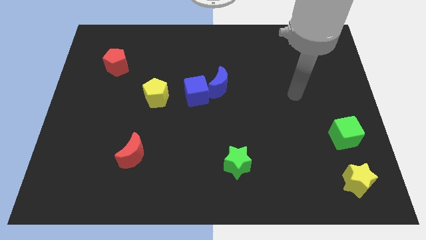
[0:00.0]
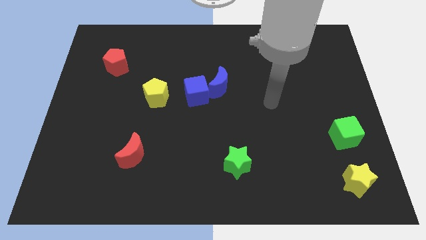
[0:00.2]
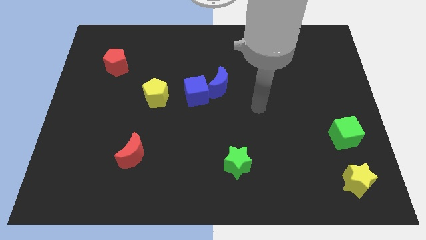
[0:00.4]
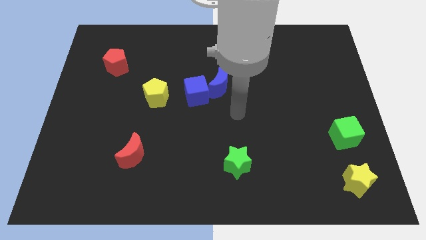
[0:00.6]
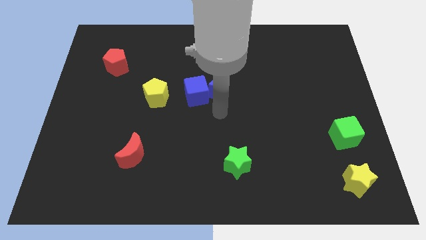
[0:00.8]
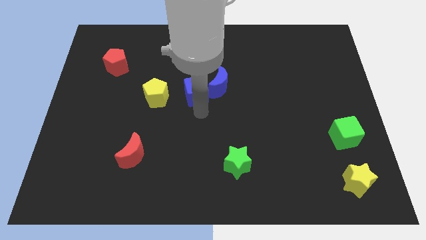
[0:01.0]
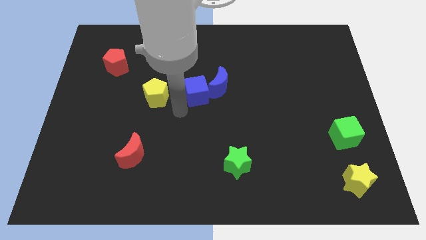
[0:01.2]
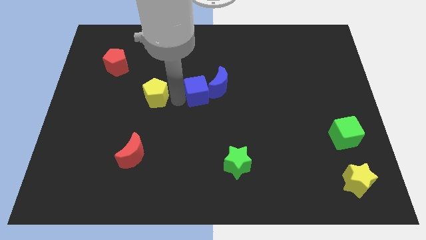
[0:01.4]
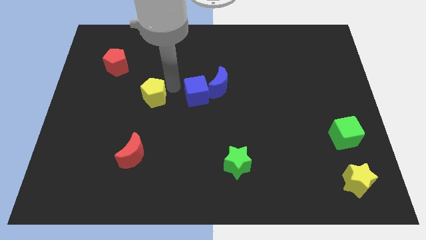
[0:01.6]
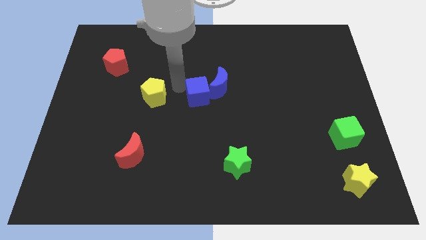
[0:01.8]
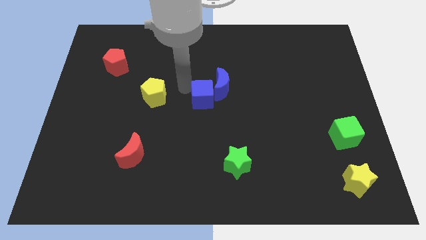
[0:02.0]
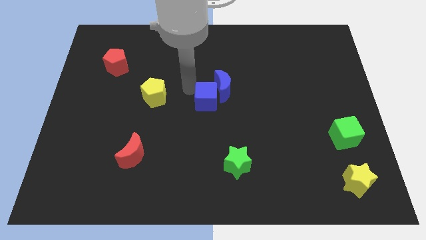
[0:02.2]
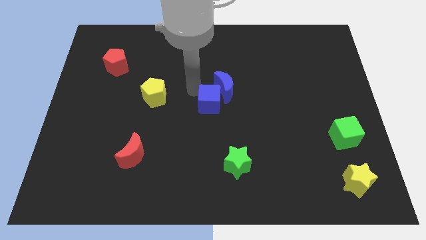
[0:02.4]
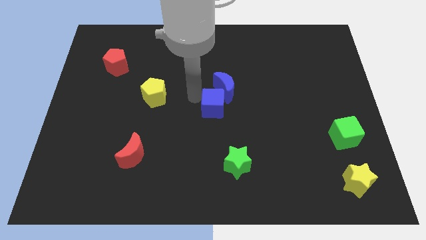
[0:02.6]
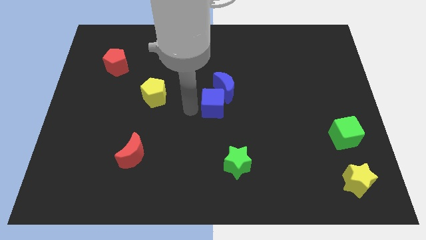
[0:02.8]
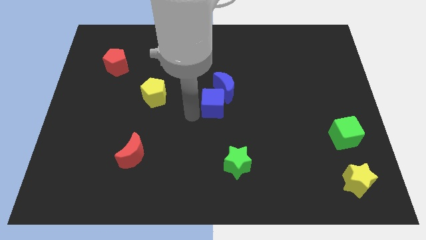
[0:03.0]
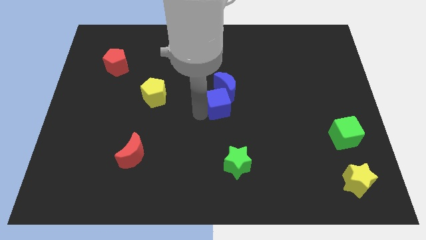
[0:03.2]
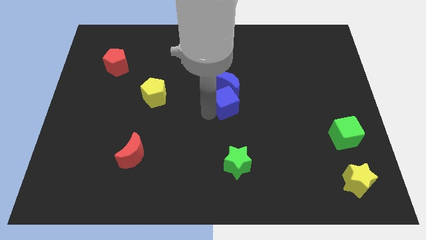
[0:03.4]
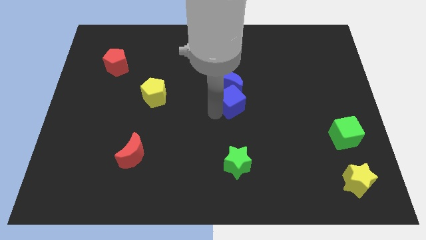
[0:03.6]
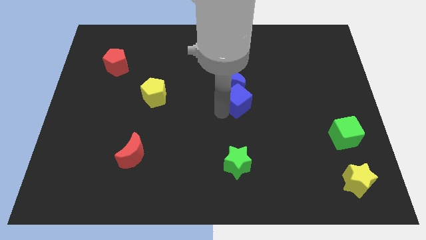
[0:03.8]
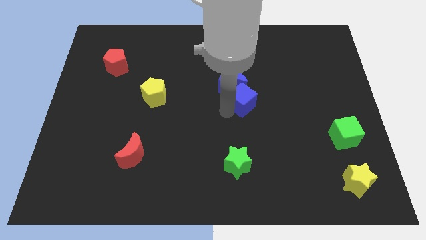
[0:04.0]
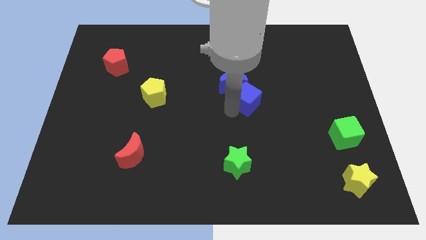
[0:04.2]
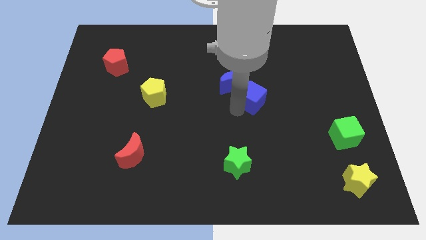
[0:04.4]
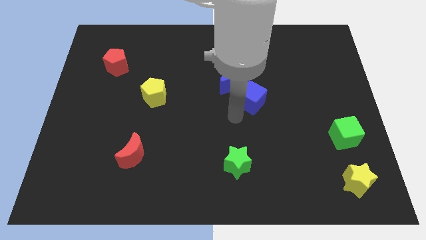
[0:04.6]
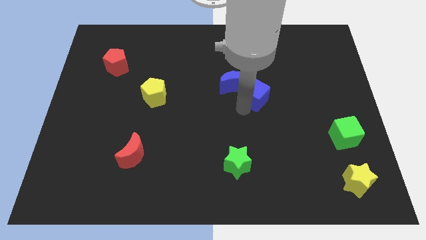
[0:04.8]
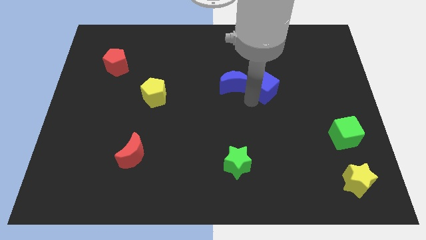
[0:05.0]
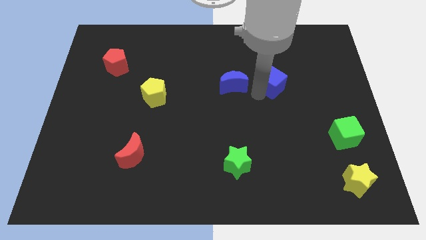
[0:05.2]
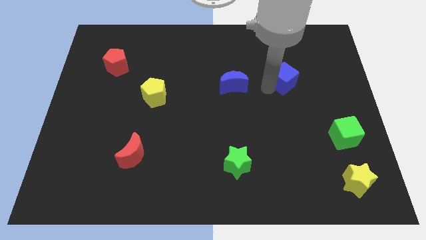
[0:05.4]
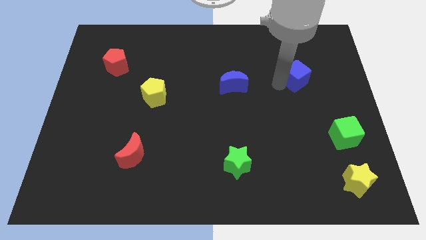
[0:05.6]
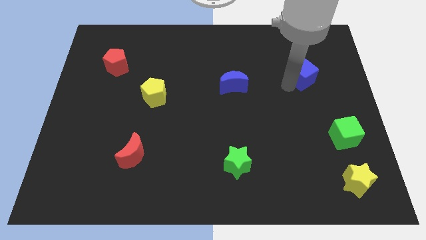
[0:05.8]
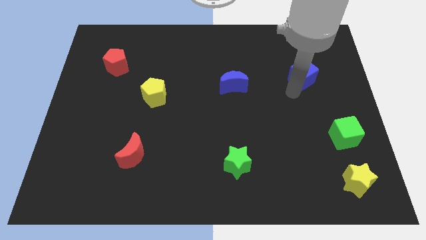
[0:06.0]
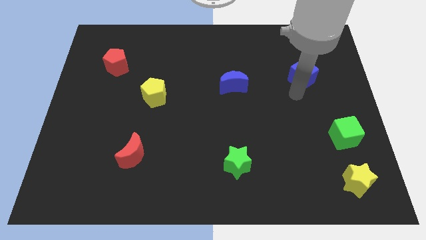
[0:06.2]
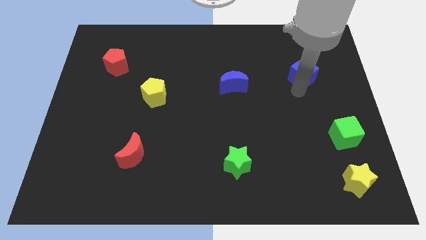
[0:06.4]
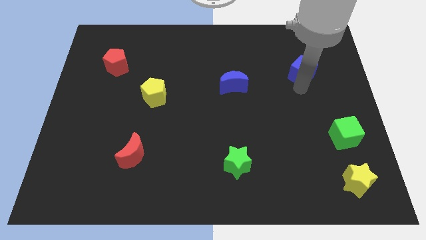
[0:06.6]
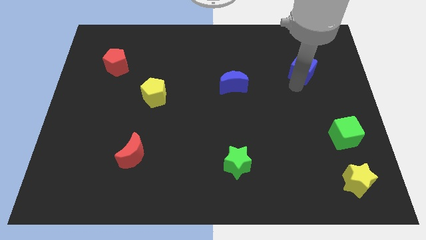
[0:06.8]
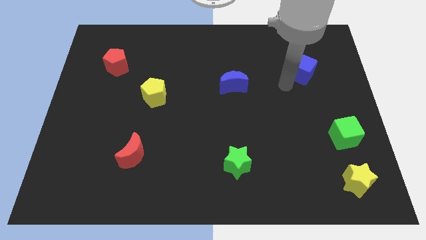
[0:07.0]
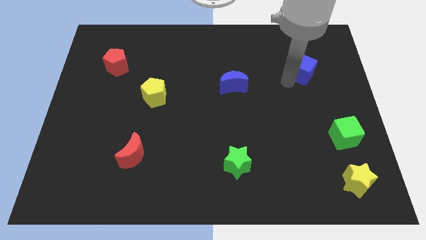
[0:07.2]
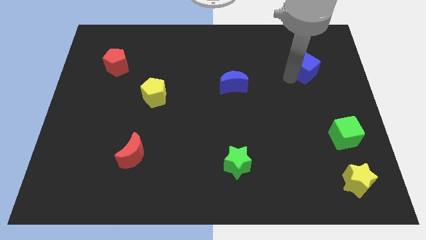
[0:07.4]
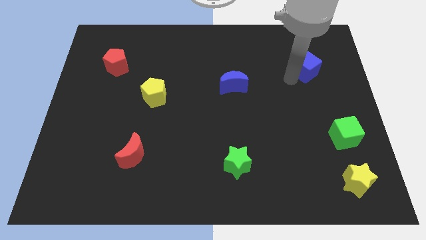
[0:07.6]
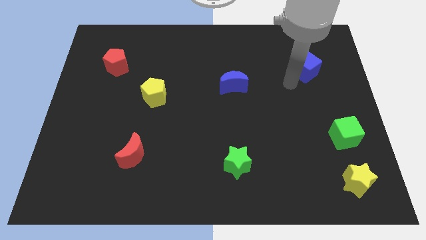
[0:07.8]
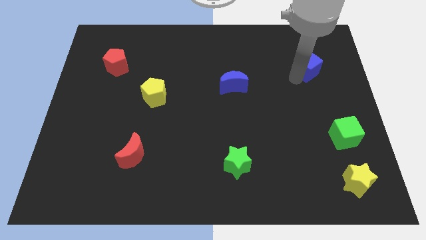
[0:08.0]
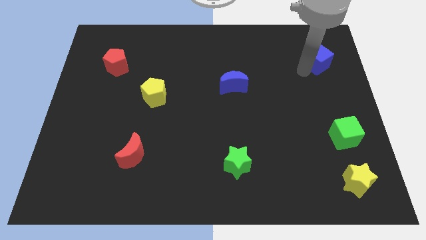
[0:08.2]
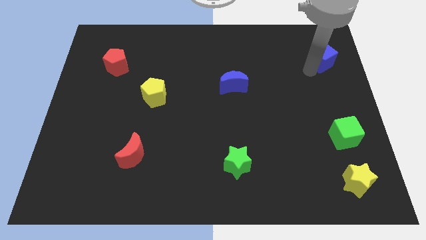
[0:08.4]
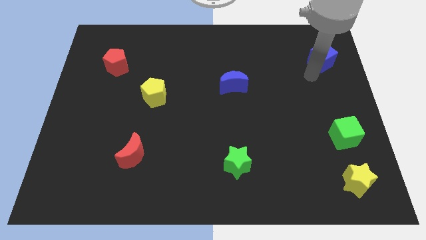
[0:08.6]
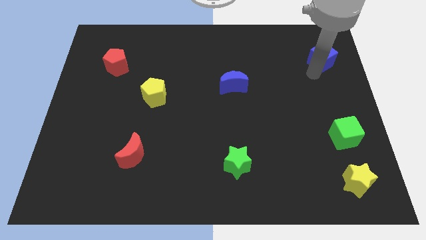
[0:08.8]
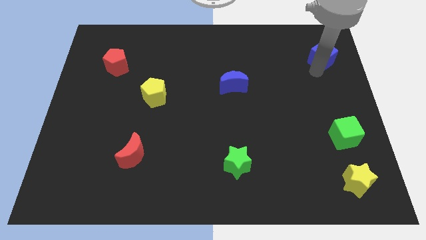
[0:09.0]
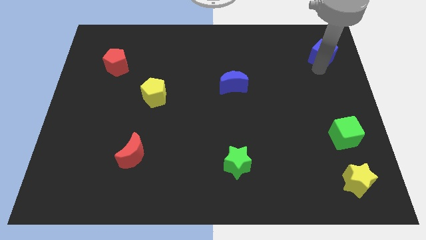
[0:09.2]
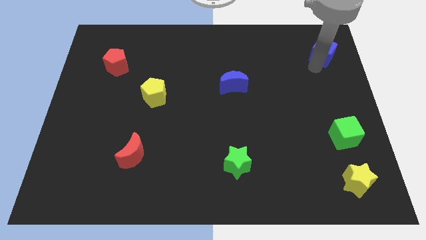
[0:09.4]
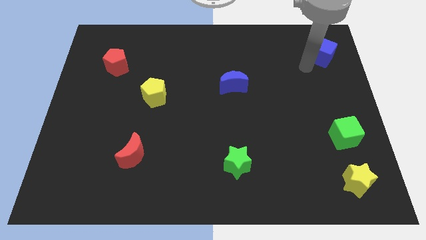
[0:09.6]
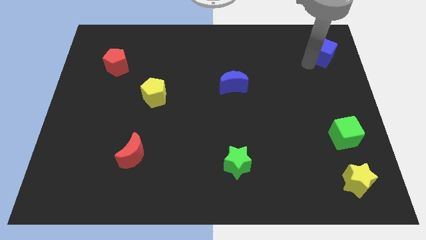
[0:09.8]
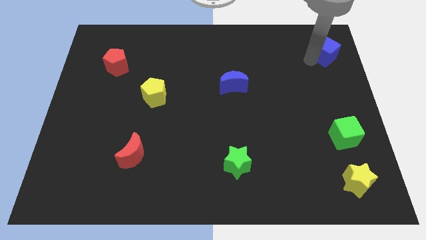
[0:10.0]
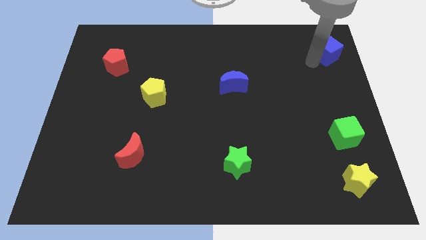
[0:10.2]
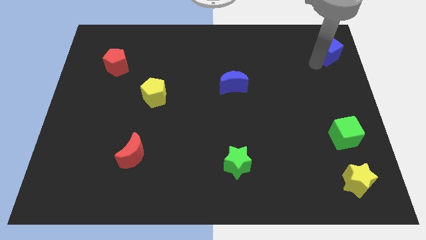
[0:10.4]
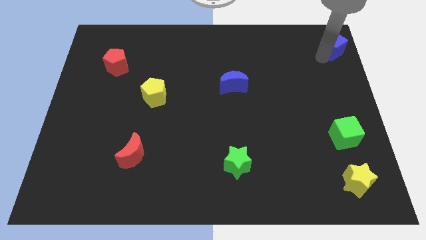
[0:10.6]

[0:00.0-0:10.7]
move the blue cube to the top right

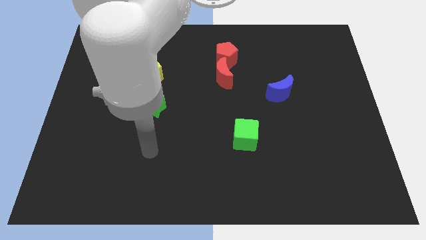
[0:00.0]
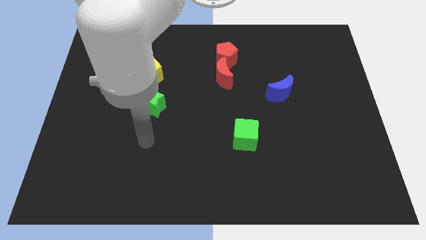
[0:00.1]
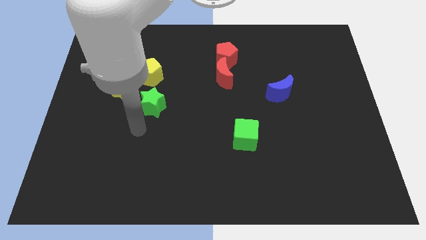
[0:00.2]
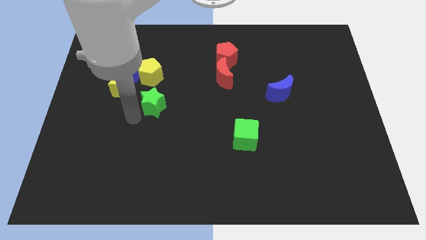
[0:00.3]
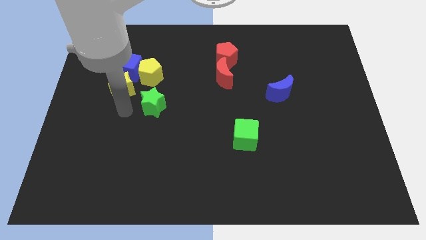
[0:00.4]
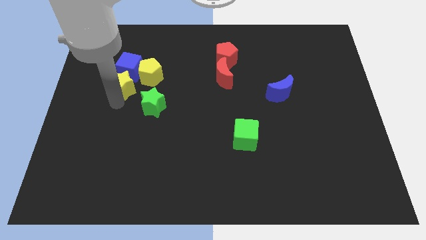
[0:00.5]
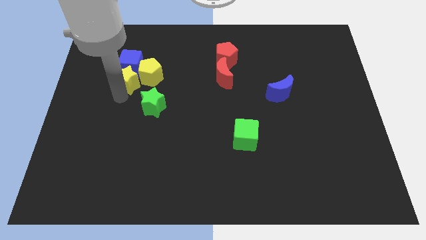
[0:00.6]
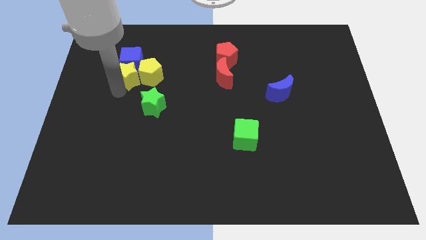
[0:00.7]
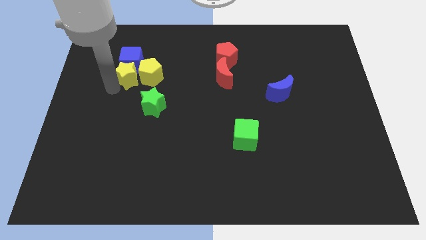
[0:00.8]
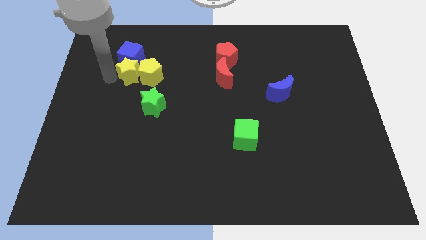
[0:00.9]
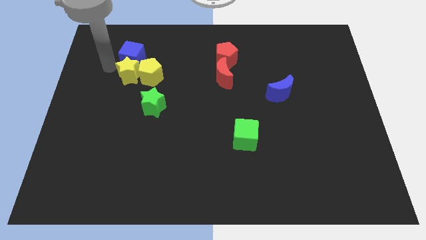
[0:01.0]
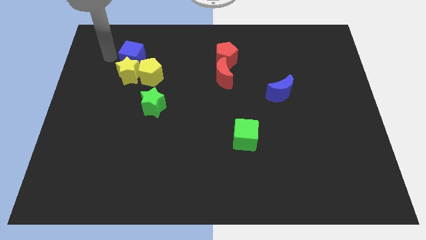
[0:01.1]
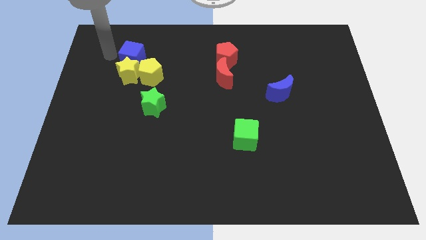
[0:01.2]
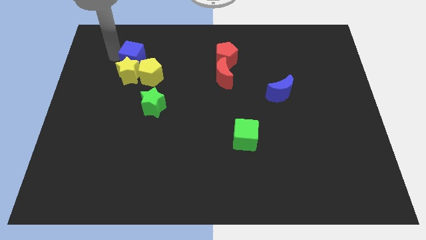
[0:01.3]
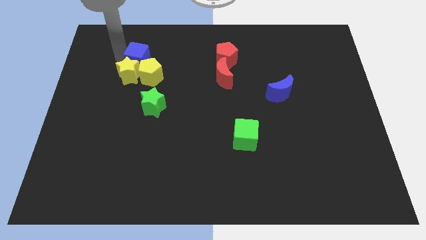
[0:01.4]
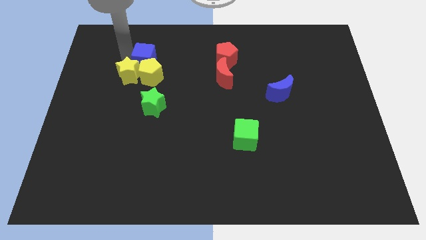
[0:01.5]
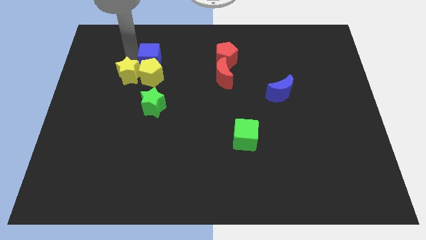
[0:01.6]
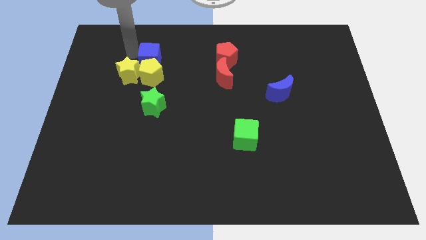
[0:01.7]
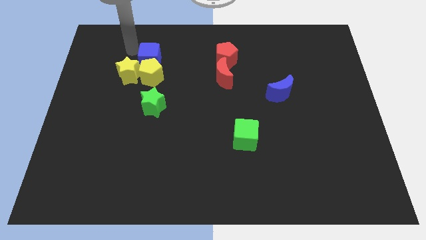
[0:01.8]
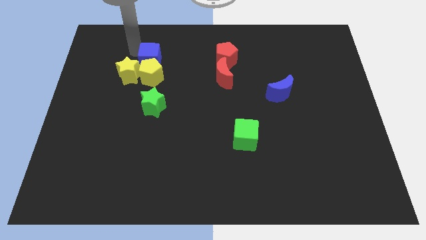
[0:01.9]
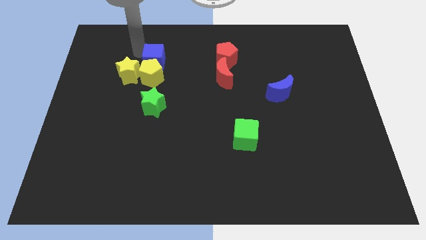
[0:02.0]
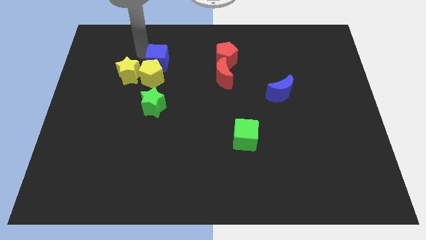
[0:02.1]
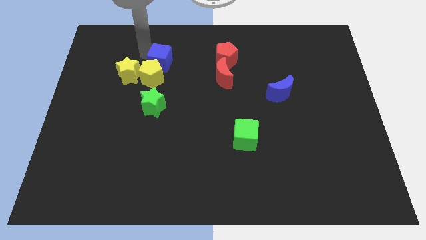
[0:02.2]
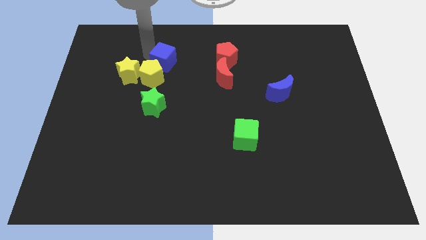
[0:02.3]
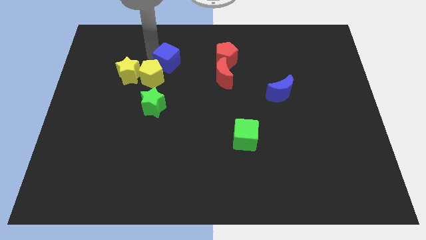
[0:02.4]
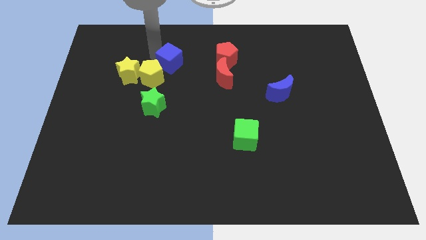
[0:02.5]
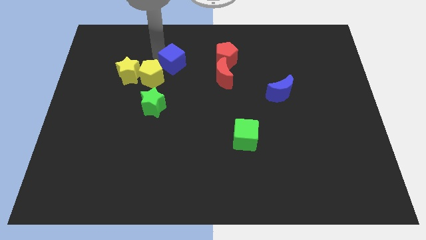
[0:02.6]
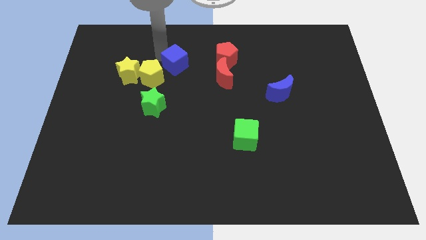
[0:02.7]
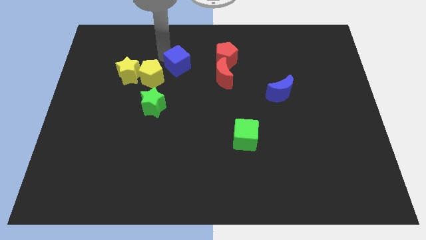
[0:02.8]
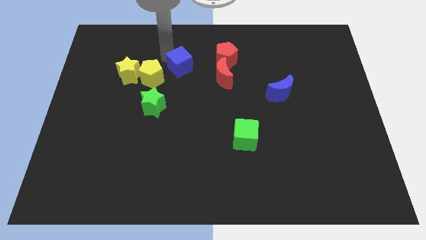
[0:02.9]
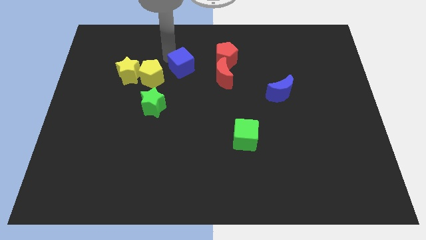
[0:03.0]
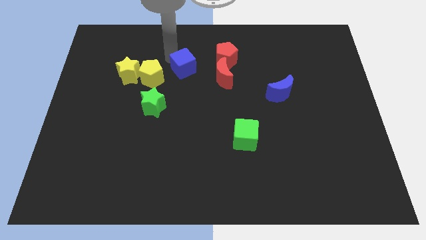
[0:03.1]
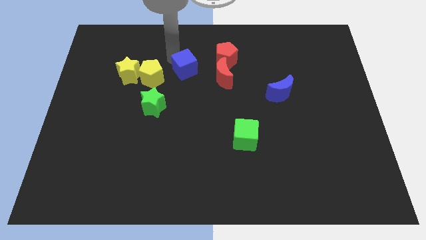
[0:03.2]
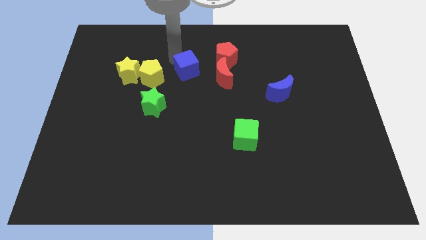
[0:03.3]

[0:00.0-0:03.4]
slide the blue cube to the center
